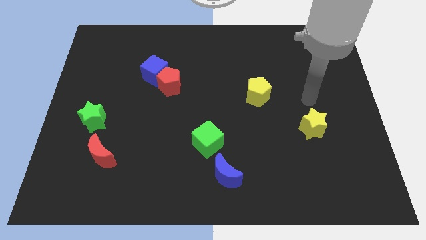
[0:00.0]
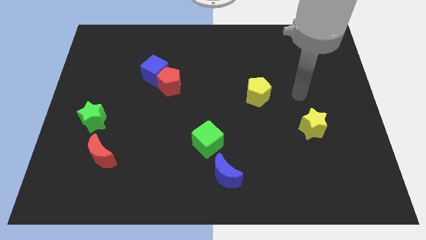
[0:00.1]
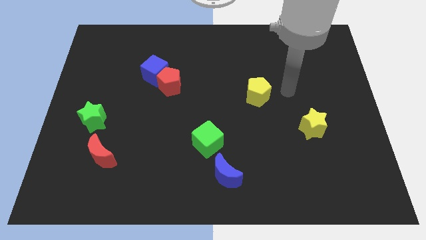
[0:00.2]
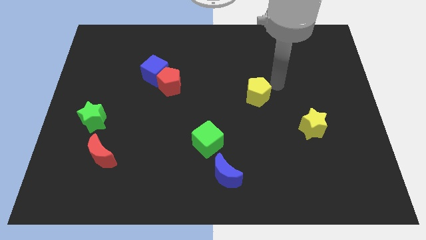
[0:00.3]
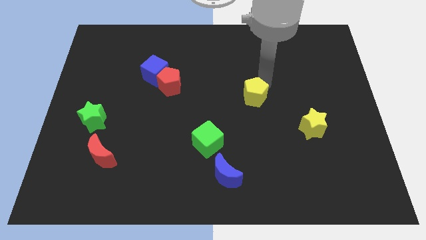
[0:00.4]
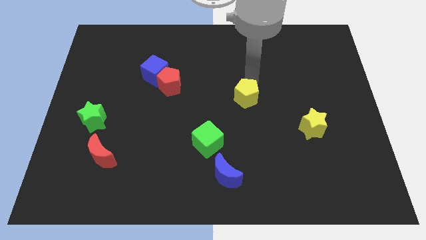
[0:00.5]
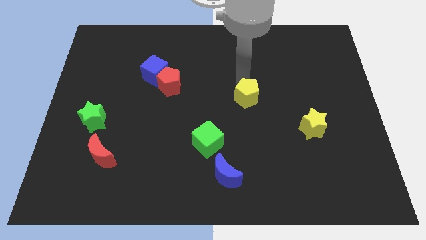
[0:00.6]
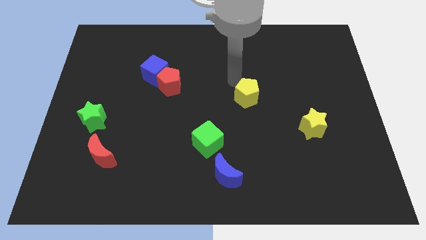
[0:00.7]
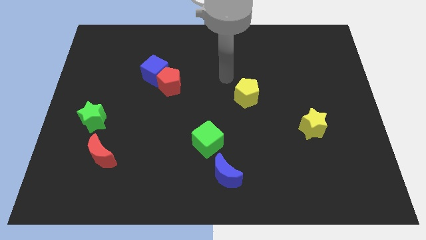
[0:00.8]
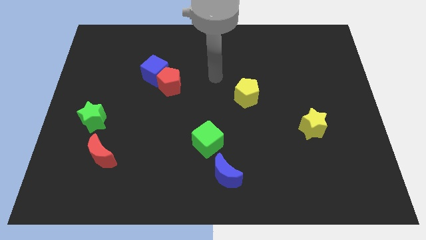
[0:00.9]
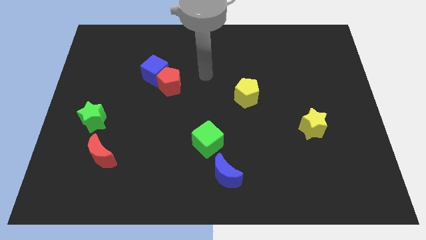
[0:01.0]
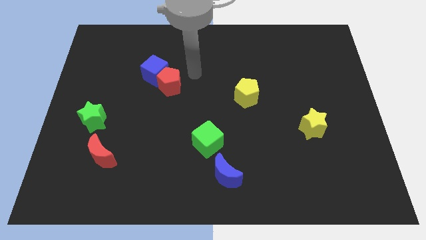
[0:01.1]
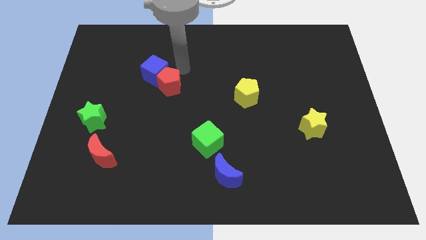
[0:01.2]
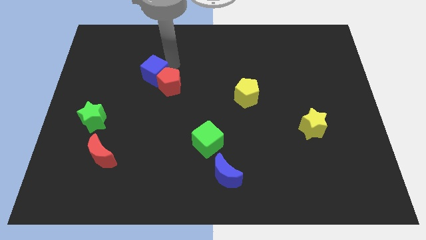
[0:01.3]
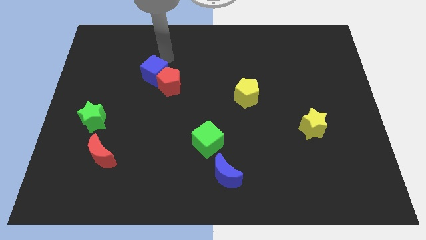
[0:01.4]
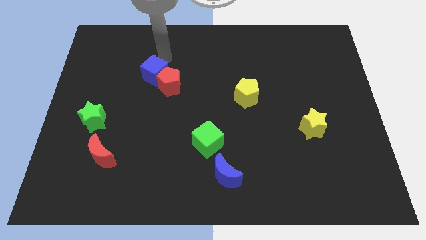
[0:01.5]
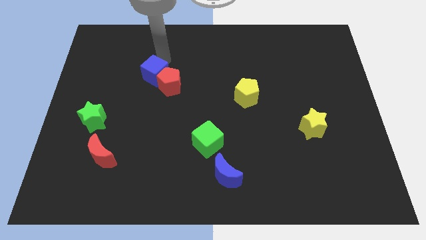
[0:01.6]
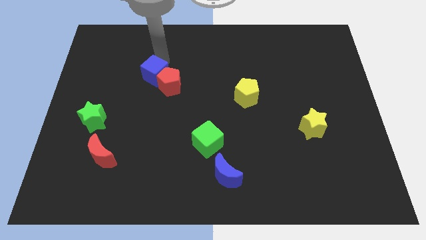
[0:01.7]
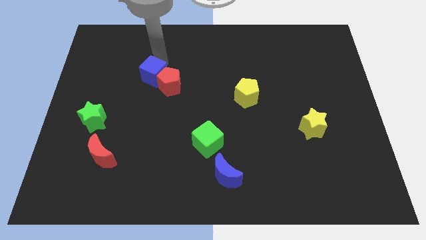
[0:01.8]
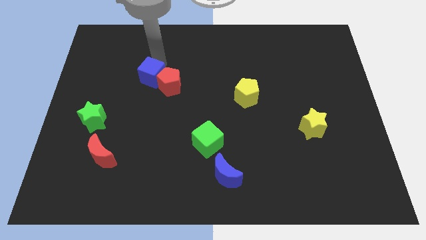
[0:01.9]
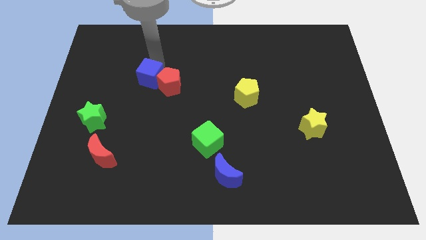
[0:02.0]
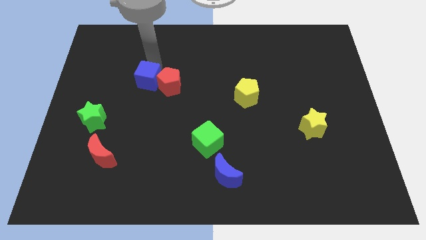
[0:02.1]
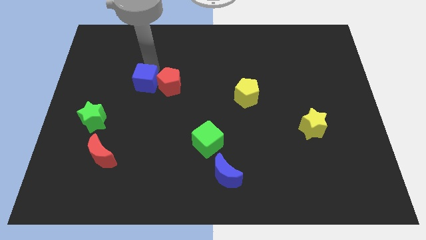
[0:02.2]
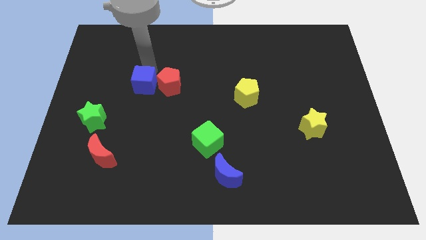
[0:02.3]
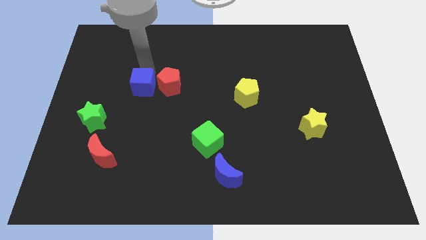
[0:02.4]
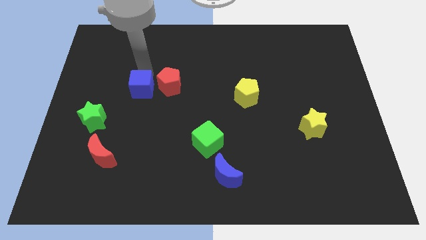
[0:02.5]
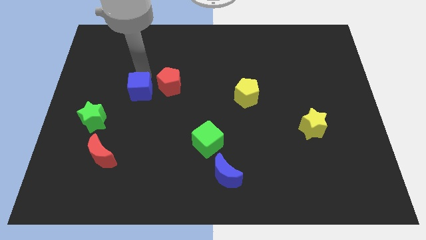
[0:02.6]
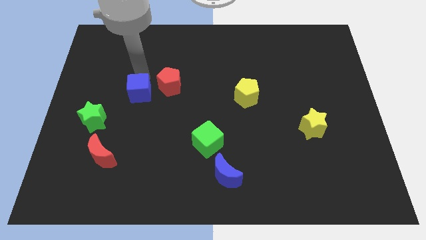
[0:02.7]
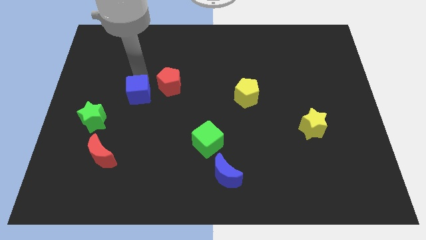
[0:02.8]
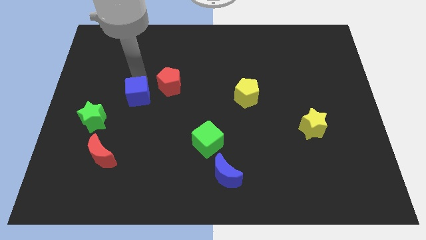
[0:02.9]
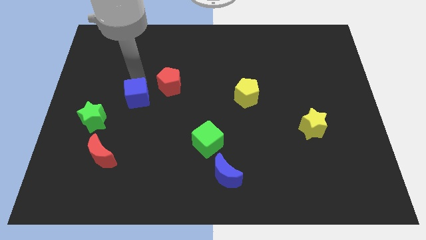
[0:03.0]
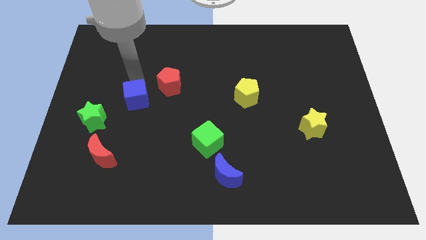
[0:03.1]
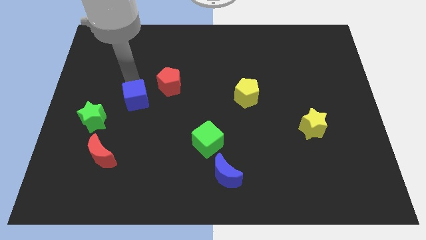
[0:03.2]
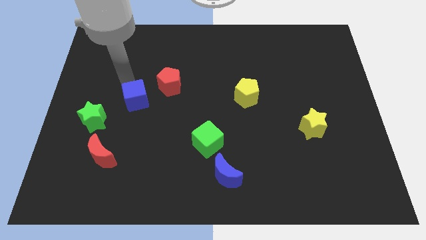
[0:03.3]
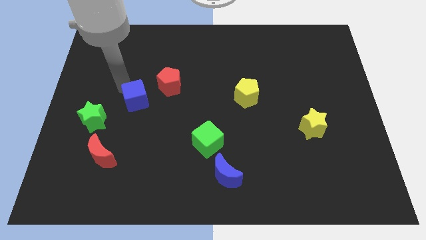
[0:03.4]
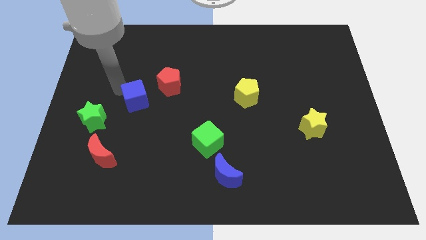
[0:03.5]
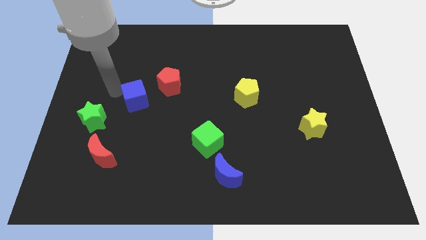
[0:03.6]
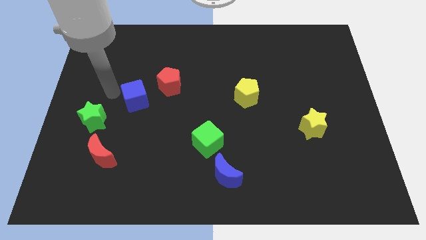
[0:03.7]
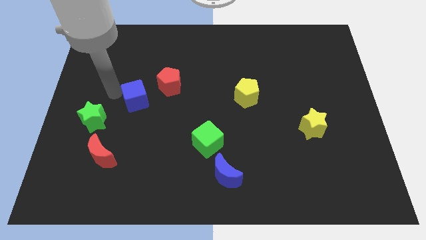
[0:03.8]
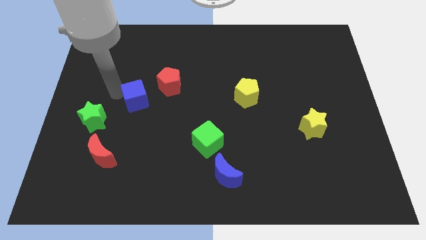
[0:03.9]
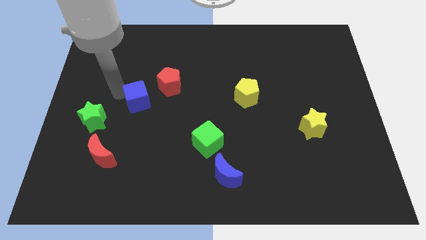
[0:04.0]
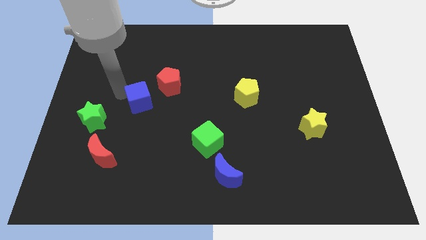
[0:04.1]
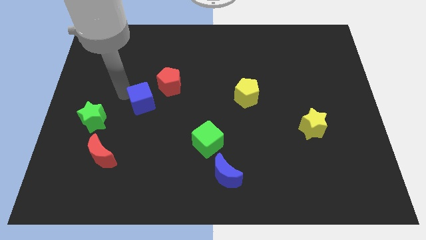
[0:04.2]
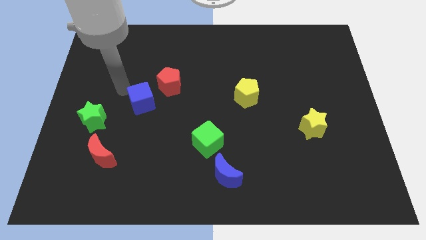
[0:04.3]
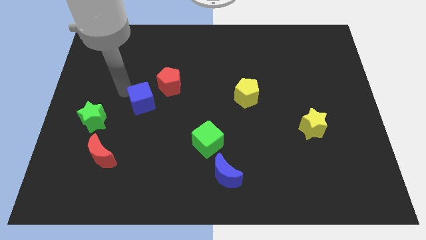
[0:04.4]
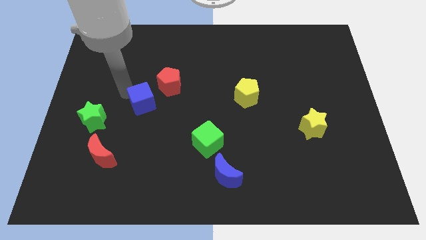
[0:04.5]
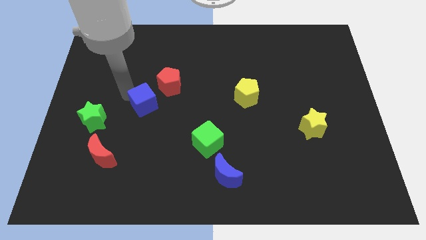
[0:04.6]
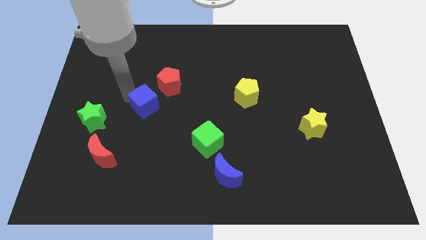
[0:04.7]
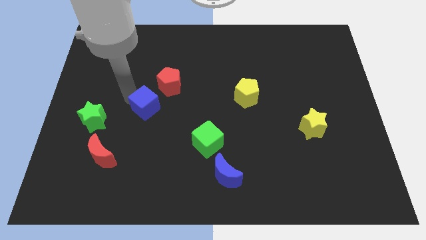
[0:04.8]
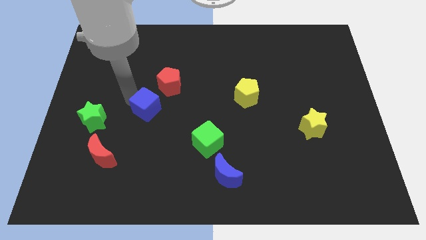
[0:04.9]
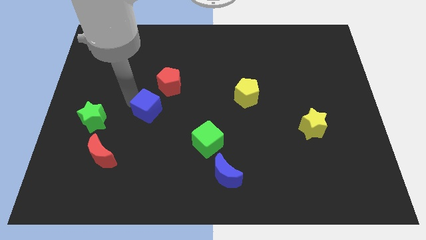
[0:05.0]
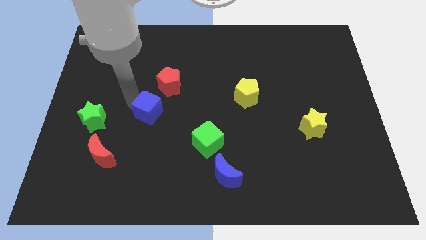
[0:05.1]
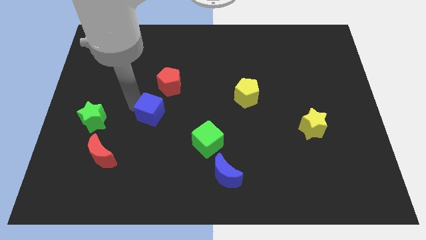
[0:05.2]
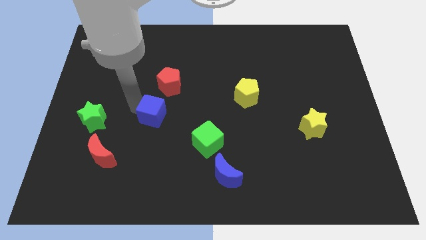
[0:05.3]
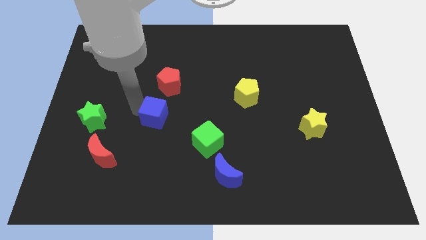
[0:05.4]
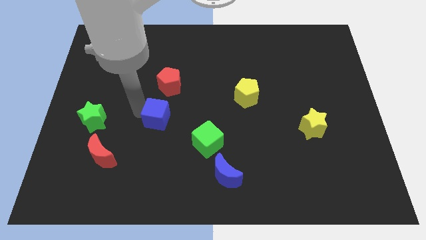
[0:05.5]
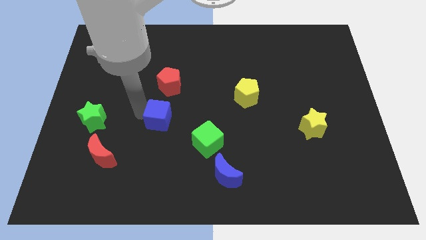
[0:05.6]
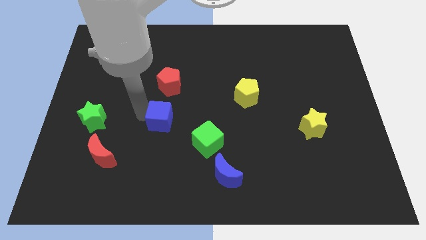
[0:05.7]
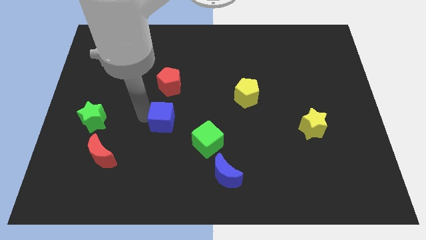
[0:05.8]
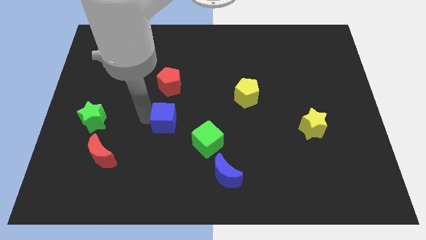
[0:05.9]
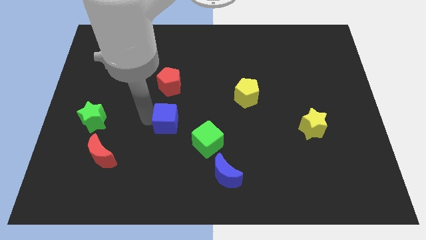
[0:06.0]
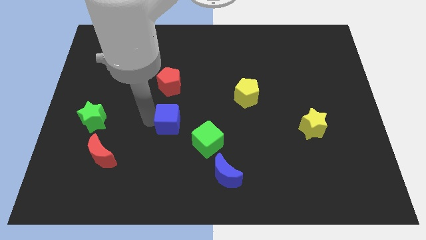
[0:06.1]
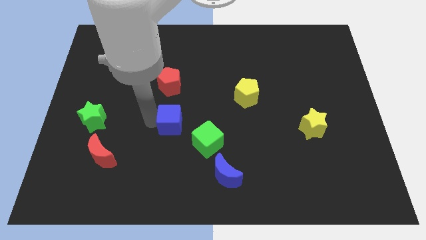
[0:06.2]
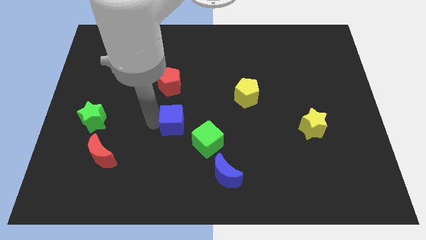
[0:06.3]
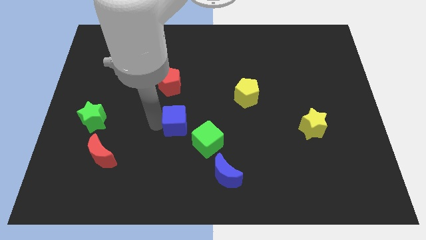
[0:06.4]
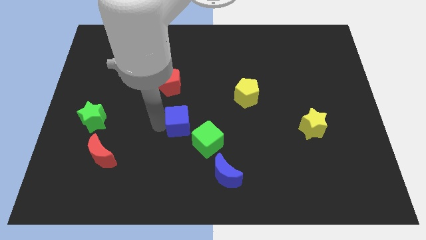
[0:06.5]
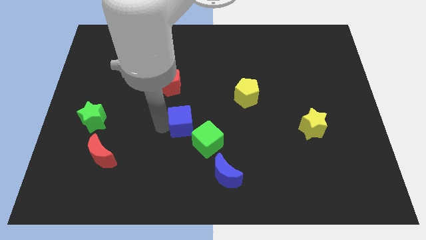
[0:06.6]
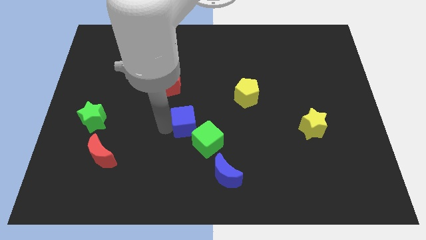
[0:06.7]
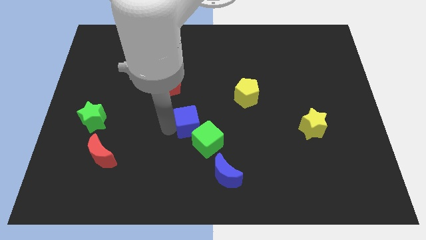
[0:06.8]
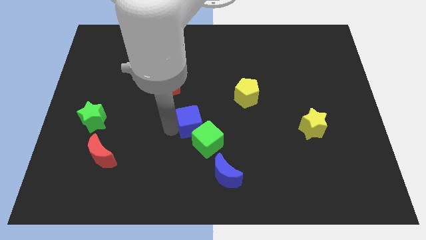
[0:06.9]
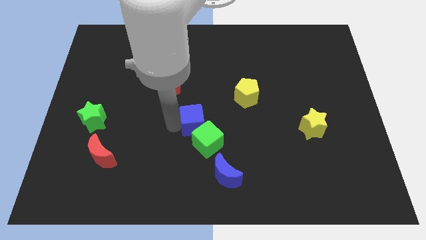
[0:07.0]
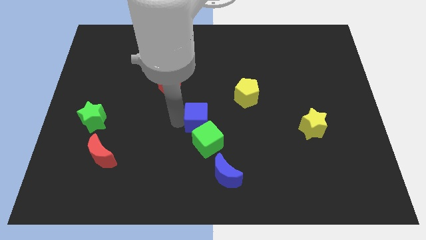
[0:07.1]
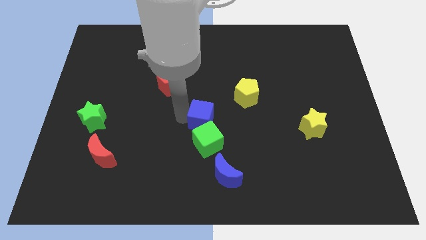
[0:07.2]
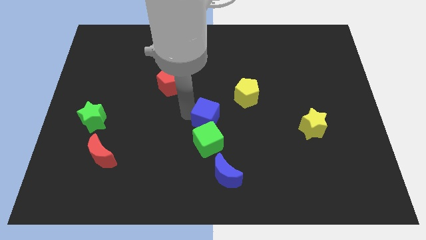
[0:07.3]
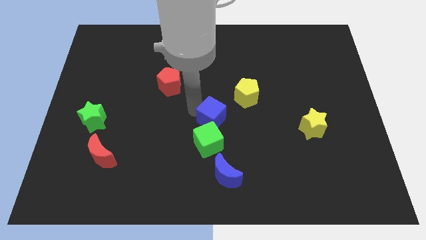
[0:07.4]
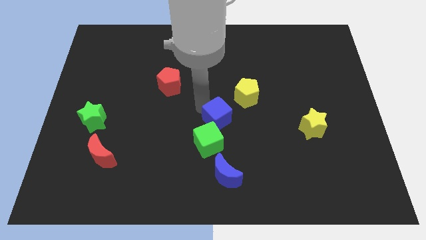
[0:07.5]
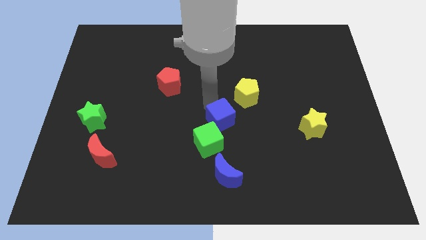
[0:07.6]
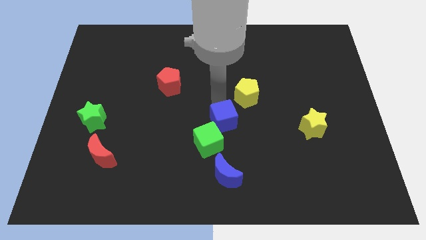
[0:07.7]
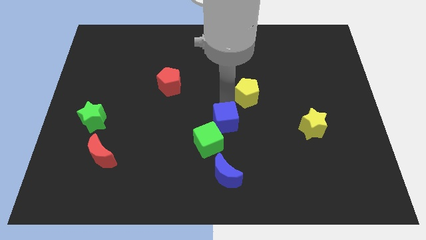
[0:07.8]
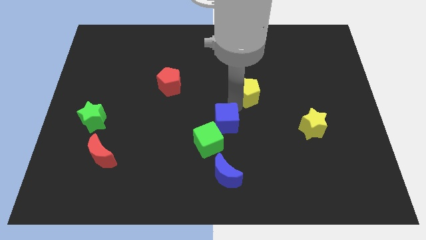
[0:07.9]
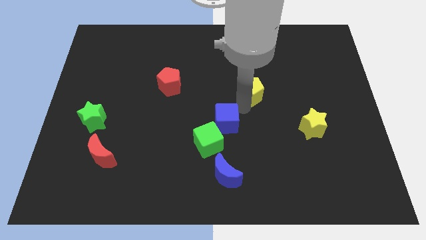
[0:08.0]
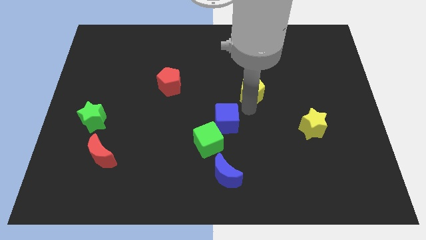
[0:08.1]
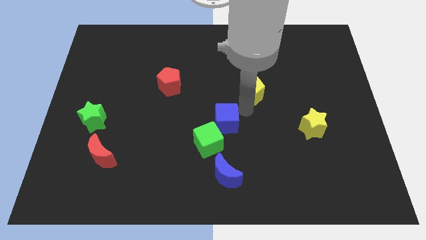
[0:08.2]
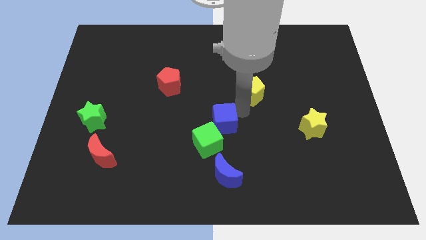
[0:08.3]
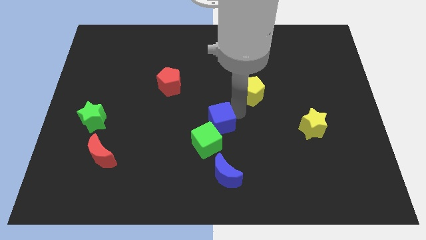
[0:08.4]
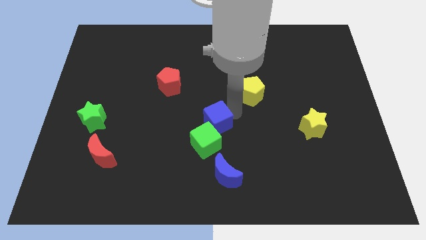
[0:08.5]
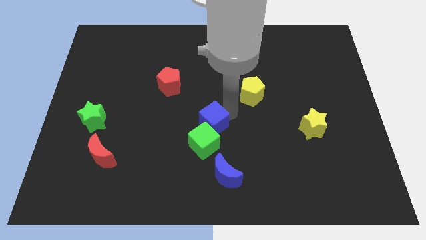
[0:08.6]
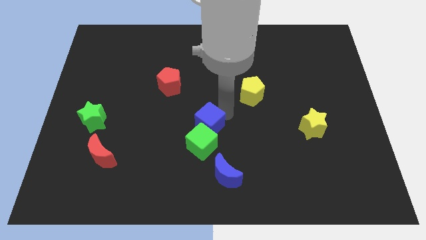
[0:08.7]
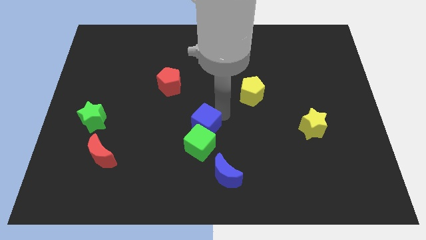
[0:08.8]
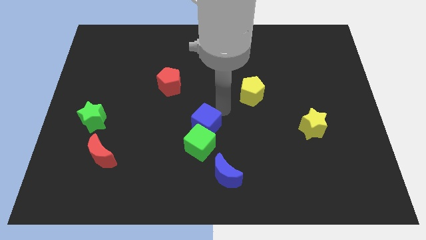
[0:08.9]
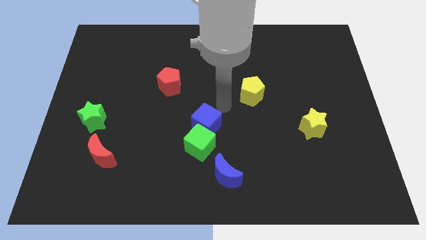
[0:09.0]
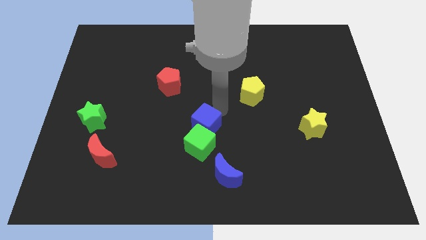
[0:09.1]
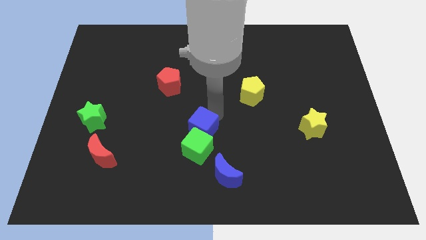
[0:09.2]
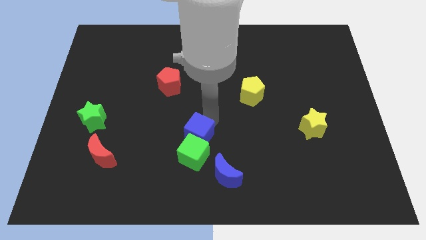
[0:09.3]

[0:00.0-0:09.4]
slide the blue cube to the top left of the blue moon
